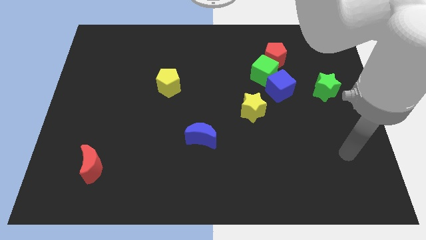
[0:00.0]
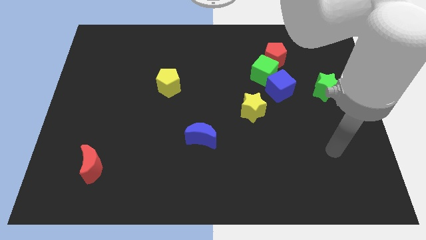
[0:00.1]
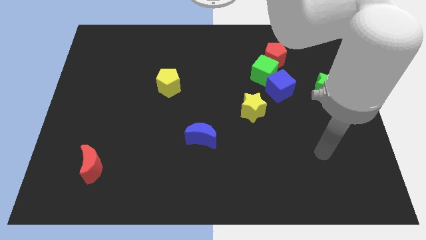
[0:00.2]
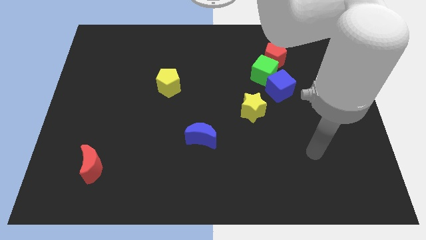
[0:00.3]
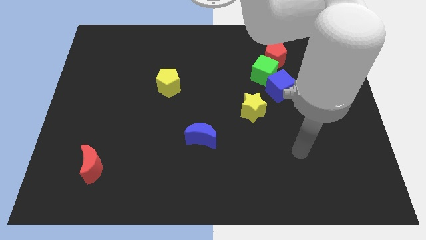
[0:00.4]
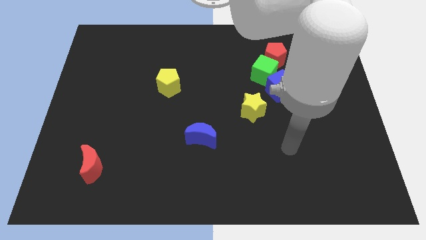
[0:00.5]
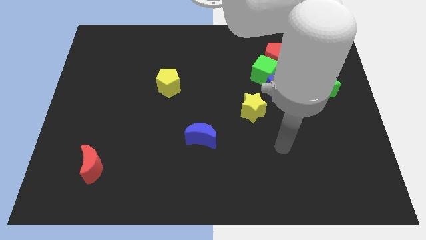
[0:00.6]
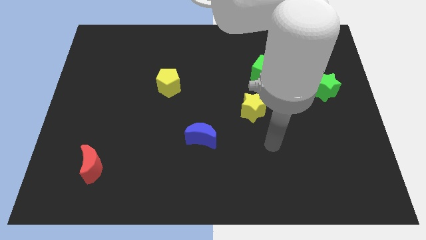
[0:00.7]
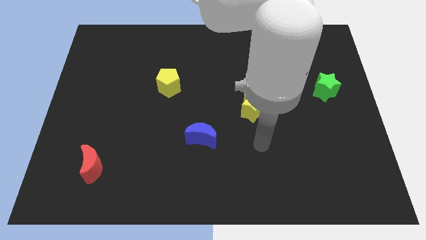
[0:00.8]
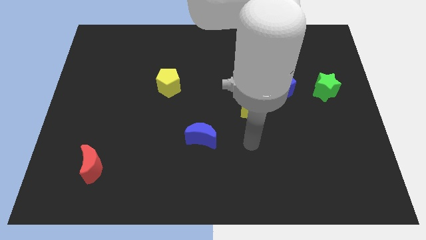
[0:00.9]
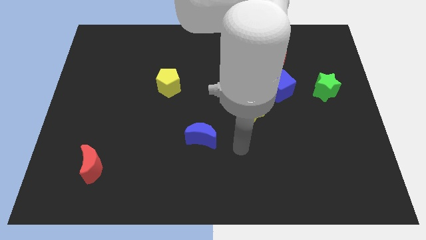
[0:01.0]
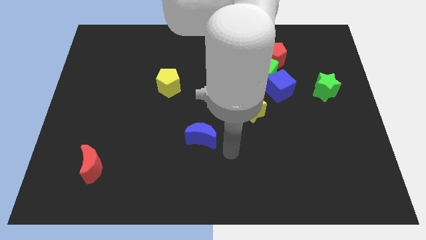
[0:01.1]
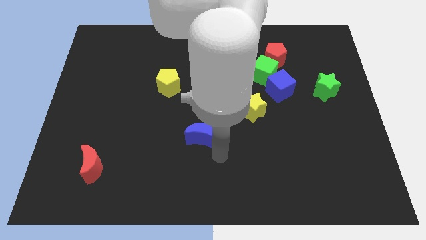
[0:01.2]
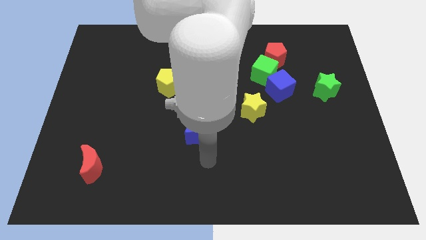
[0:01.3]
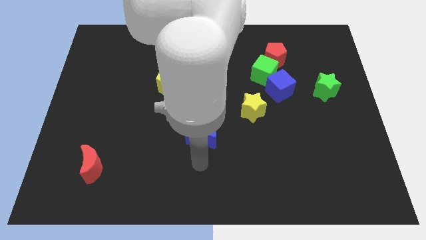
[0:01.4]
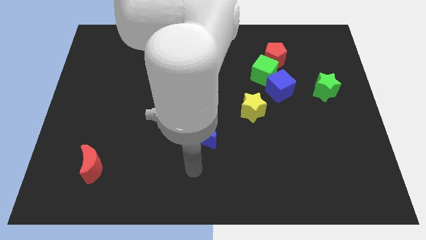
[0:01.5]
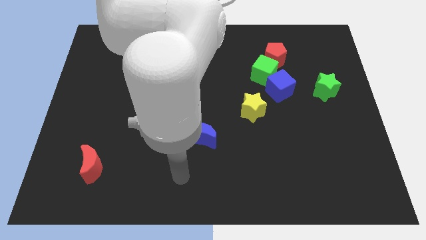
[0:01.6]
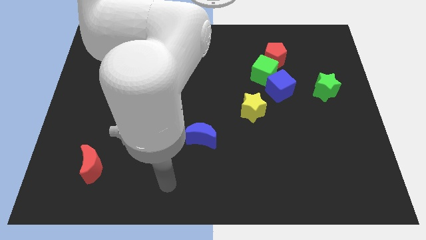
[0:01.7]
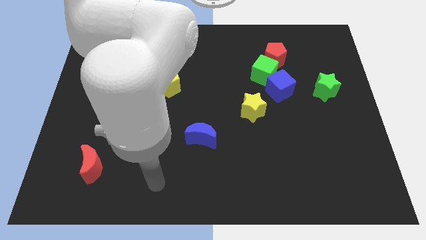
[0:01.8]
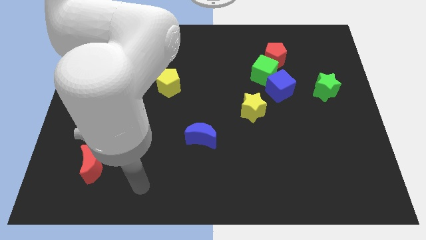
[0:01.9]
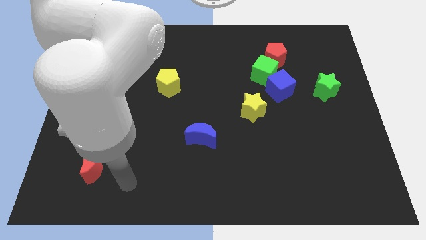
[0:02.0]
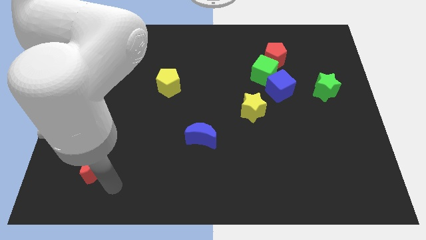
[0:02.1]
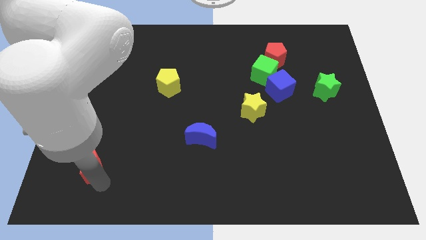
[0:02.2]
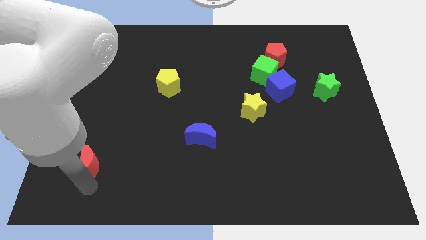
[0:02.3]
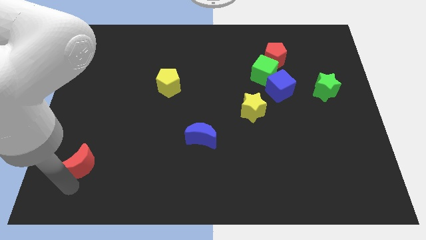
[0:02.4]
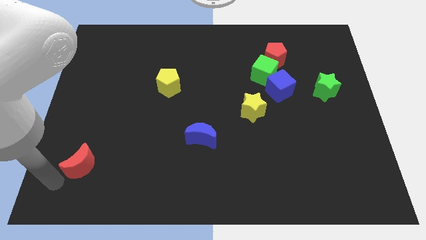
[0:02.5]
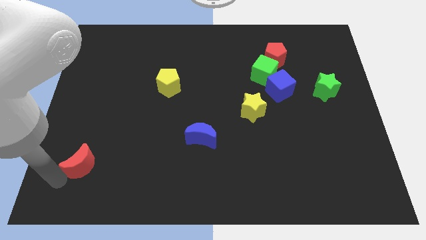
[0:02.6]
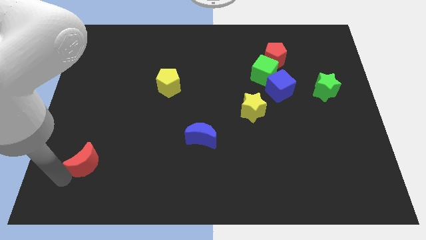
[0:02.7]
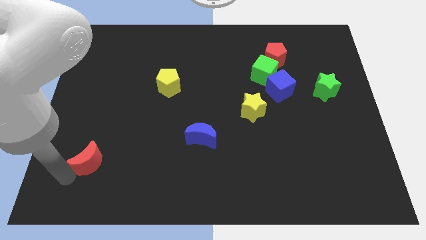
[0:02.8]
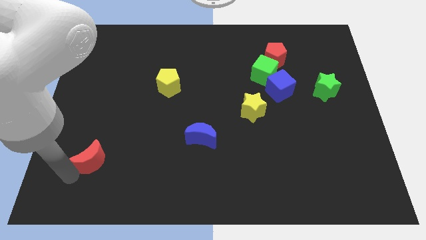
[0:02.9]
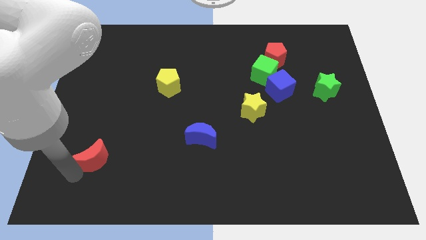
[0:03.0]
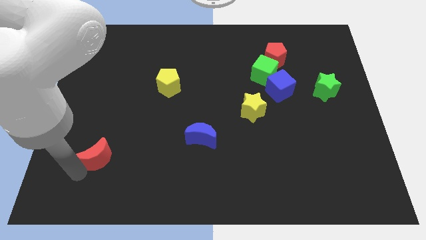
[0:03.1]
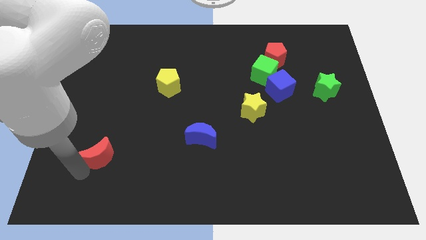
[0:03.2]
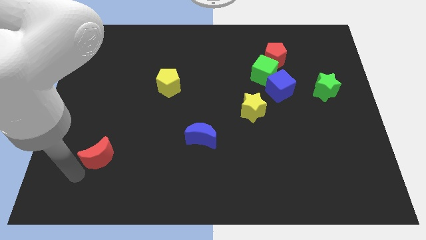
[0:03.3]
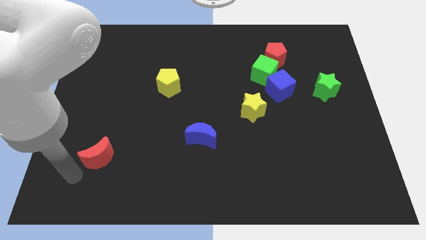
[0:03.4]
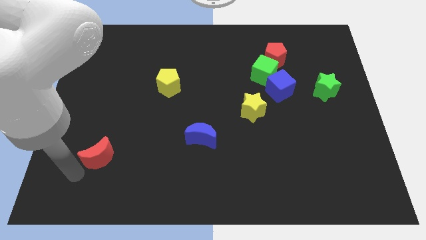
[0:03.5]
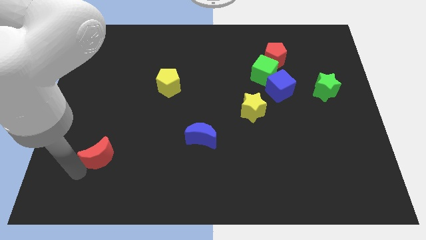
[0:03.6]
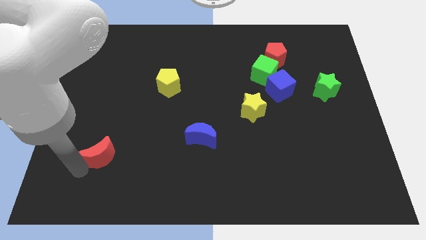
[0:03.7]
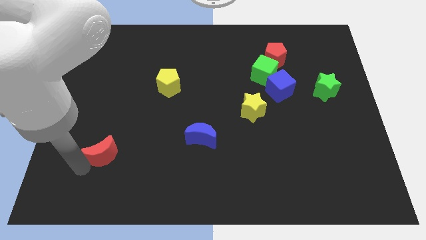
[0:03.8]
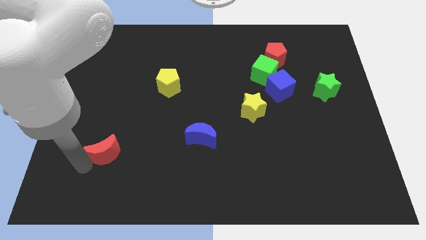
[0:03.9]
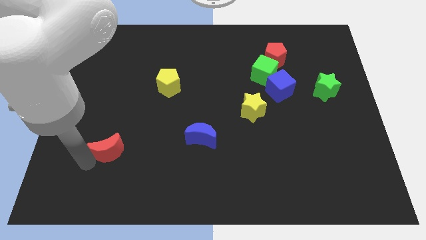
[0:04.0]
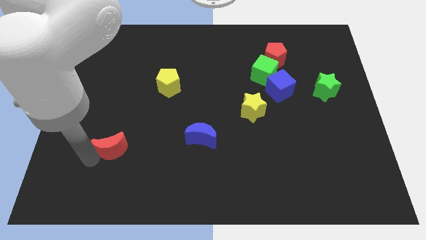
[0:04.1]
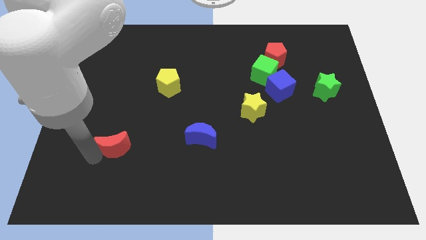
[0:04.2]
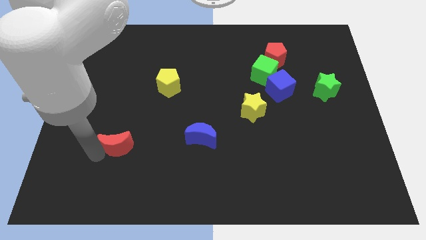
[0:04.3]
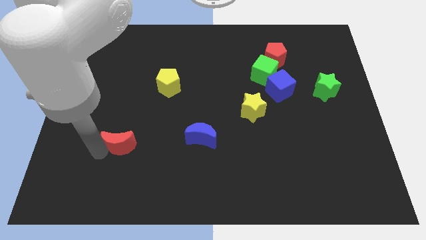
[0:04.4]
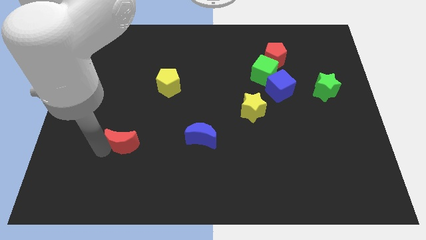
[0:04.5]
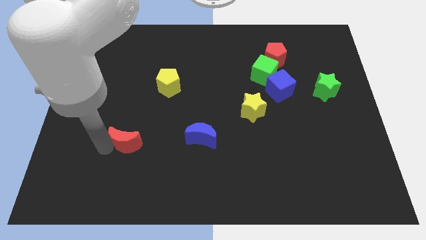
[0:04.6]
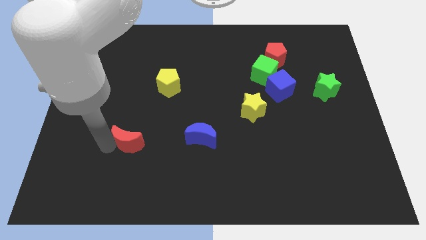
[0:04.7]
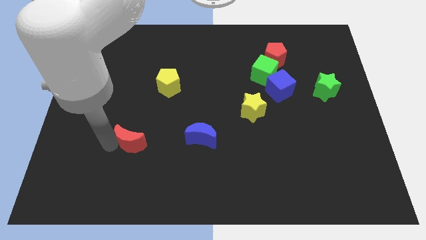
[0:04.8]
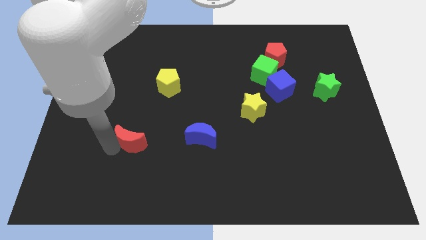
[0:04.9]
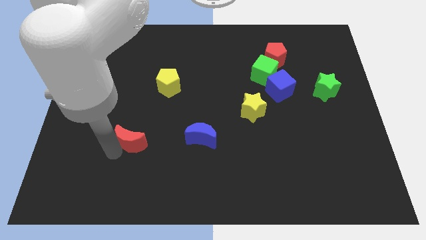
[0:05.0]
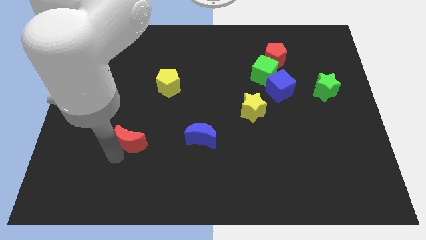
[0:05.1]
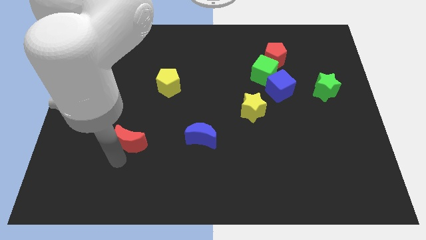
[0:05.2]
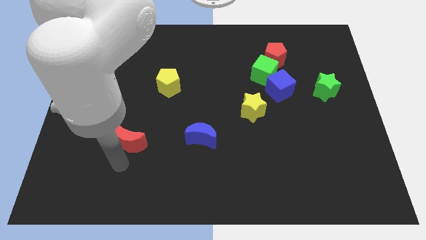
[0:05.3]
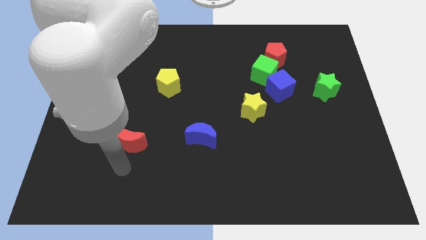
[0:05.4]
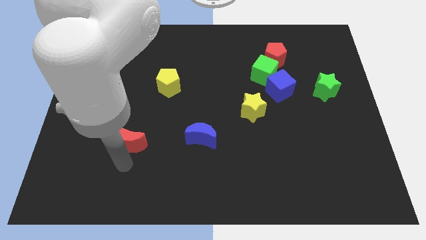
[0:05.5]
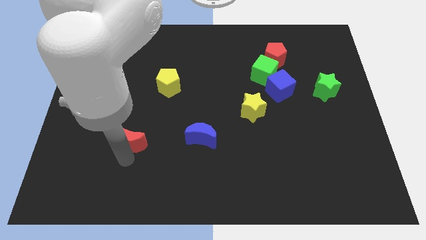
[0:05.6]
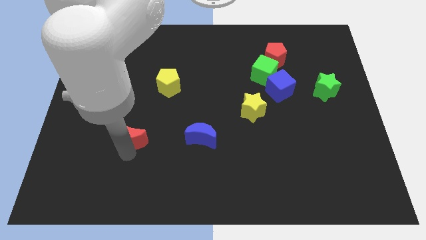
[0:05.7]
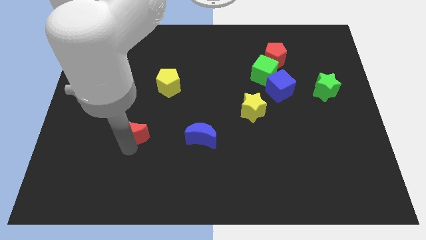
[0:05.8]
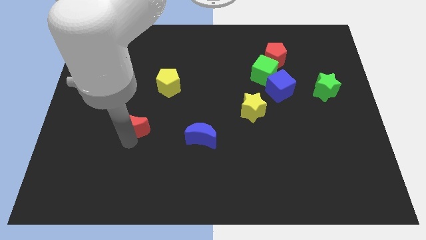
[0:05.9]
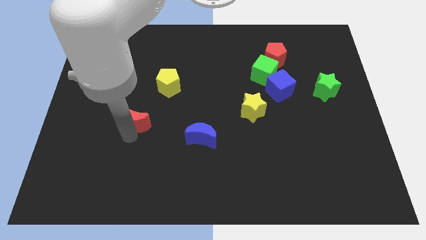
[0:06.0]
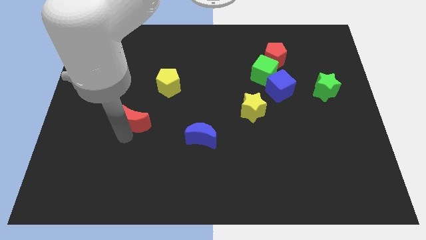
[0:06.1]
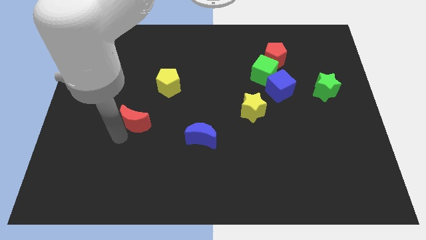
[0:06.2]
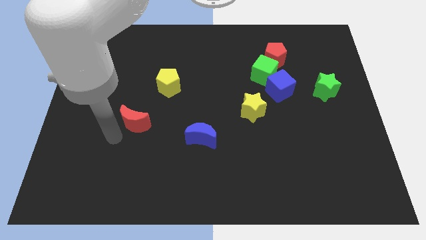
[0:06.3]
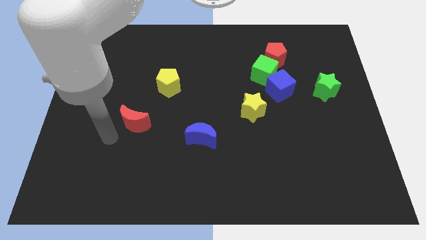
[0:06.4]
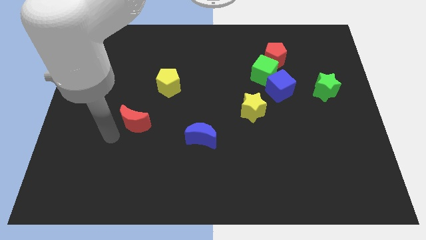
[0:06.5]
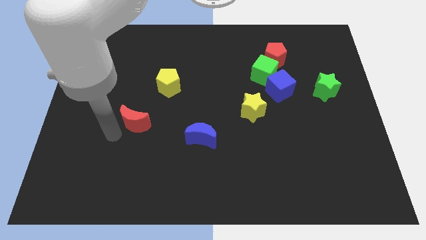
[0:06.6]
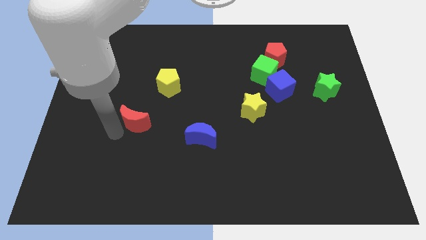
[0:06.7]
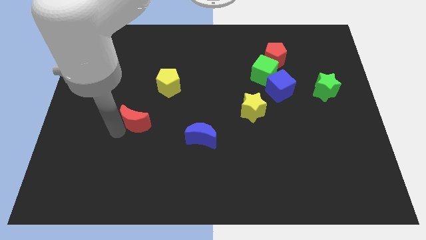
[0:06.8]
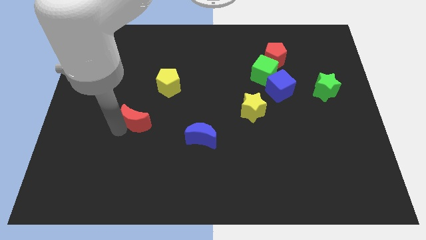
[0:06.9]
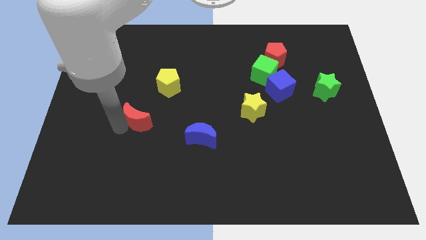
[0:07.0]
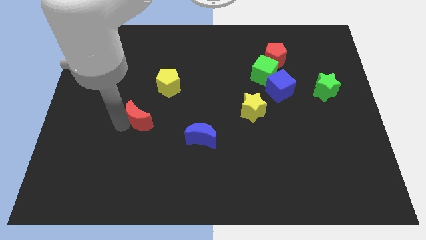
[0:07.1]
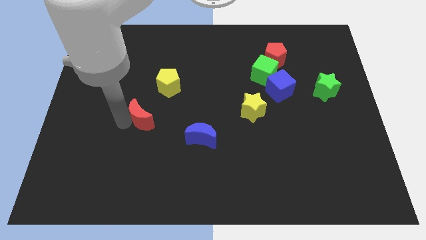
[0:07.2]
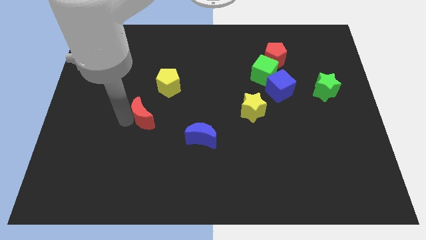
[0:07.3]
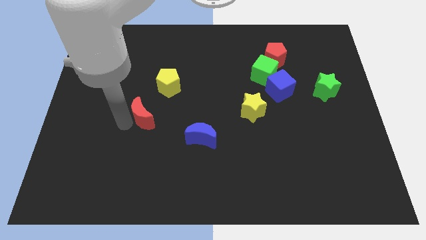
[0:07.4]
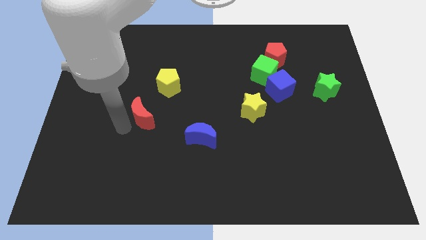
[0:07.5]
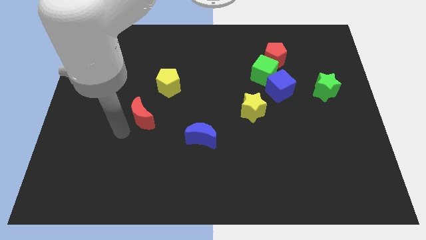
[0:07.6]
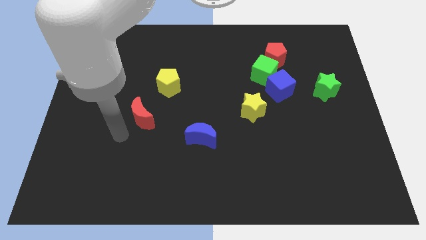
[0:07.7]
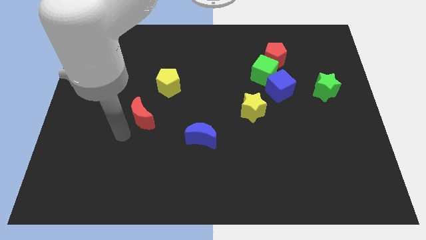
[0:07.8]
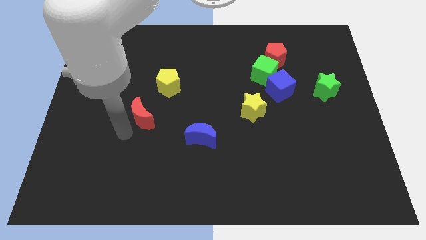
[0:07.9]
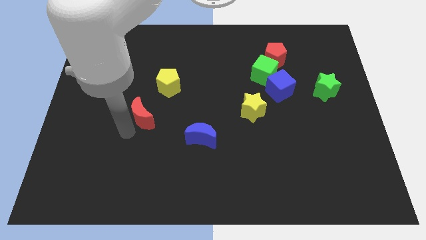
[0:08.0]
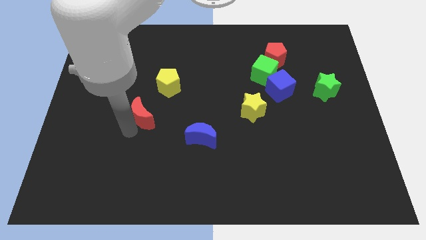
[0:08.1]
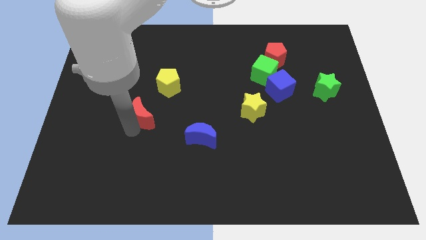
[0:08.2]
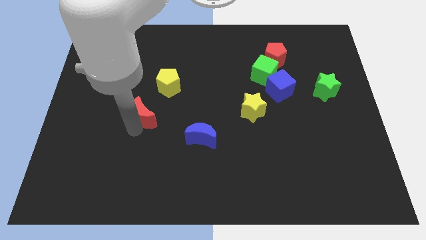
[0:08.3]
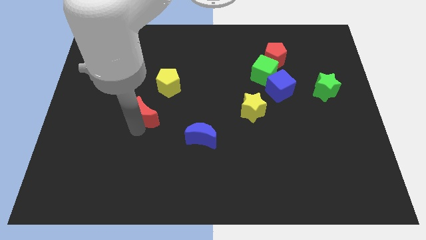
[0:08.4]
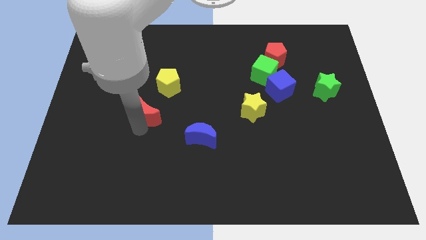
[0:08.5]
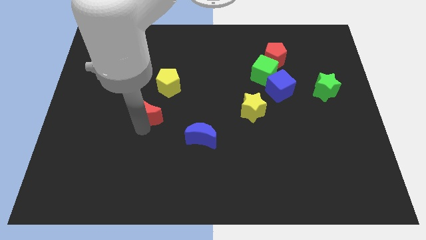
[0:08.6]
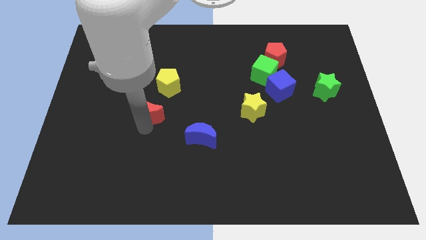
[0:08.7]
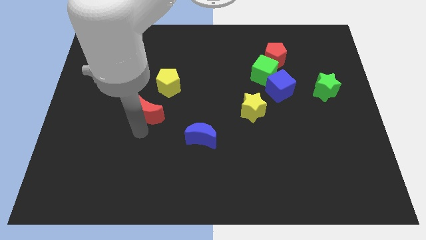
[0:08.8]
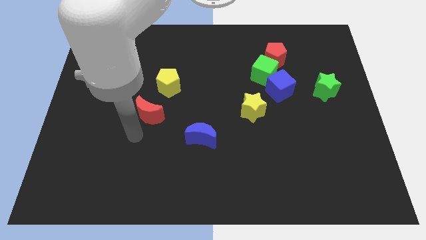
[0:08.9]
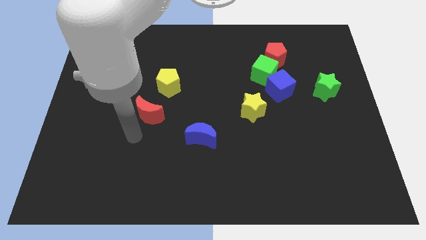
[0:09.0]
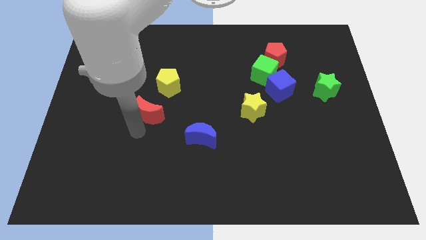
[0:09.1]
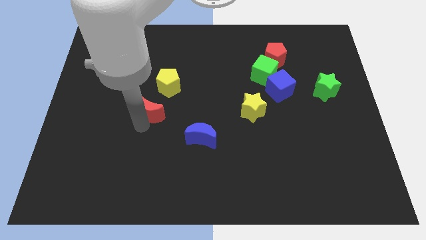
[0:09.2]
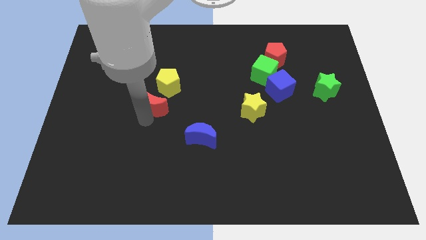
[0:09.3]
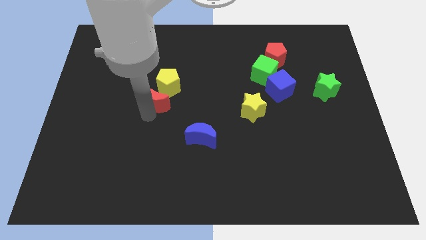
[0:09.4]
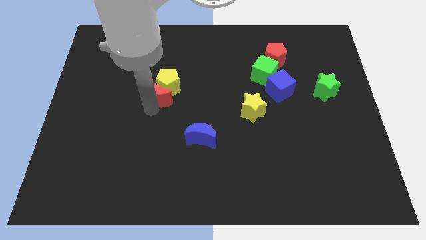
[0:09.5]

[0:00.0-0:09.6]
push the red moon towards the yellow pentagon
